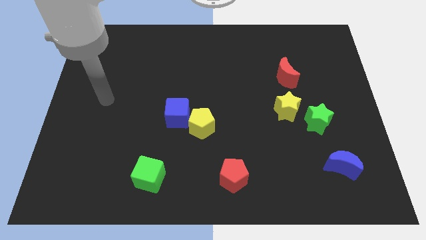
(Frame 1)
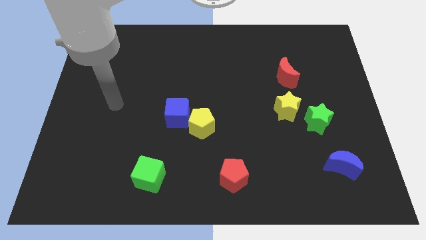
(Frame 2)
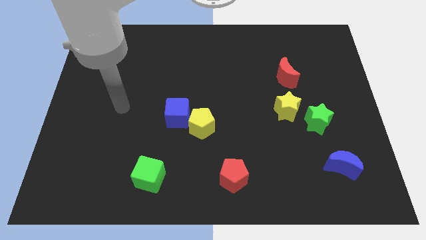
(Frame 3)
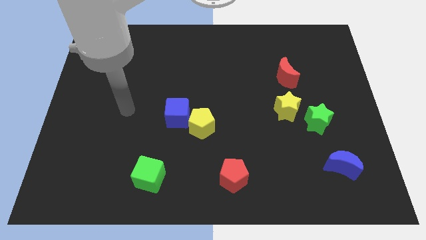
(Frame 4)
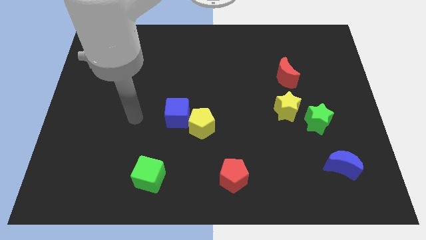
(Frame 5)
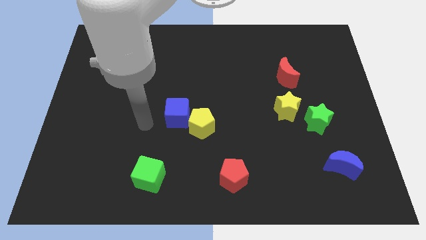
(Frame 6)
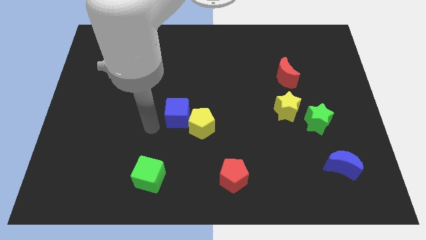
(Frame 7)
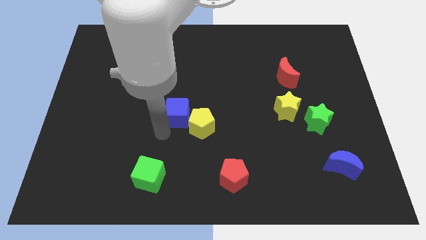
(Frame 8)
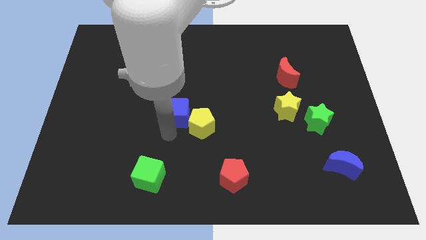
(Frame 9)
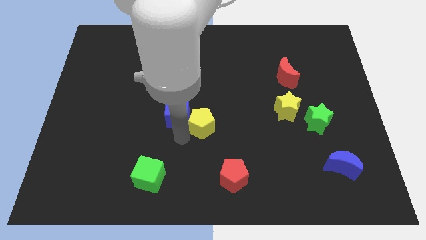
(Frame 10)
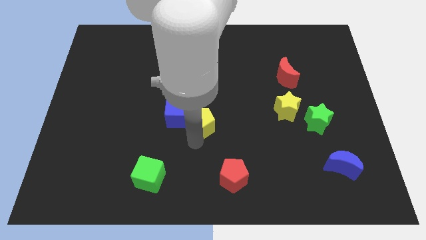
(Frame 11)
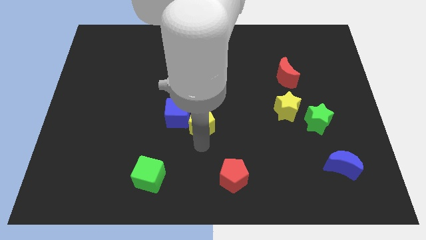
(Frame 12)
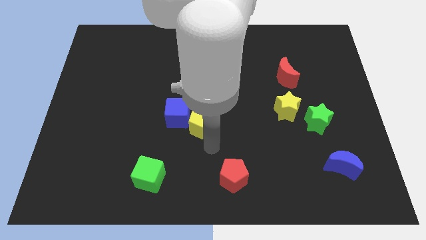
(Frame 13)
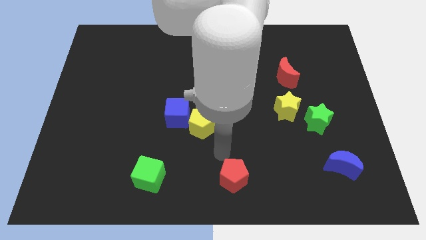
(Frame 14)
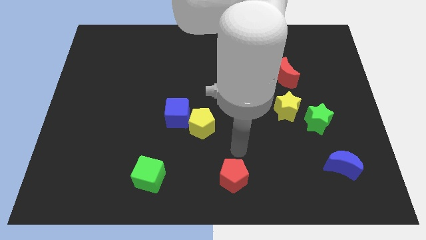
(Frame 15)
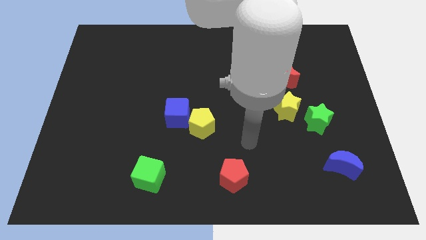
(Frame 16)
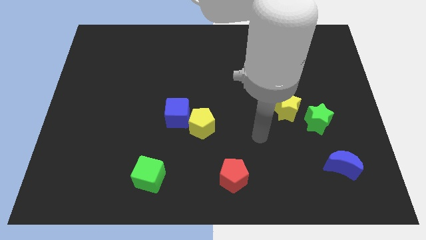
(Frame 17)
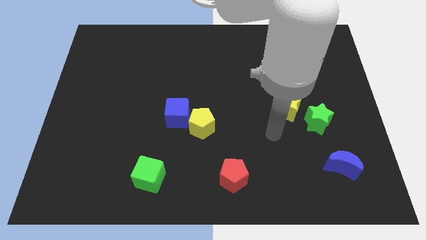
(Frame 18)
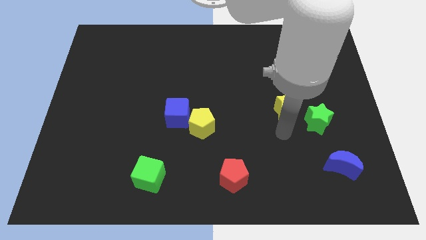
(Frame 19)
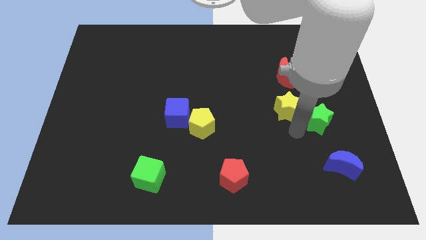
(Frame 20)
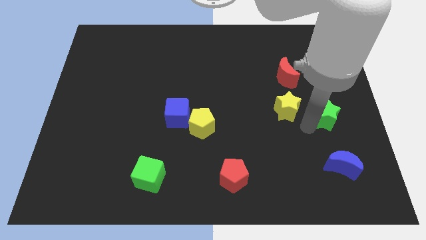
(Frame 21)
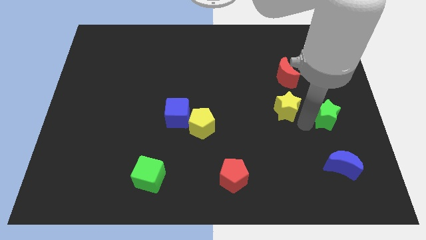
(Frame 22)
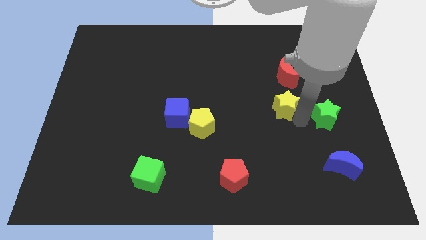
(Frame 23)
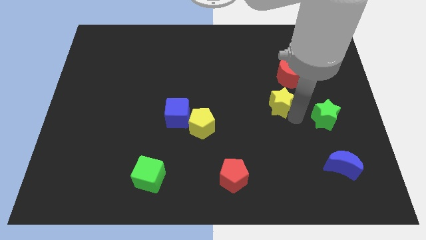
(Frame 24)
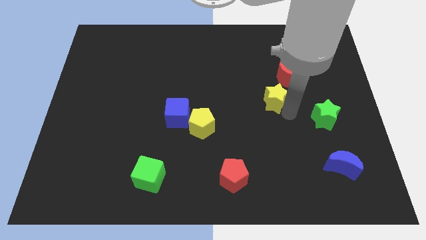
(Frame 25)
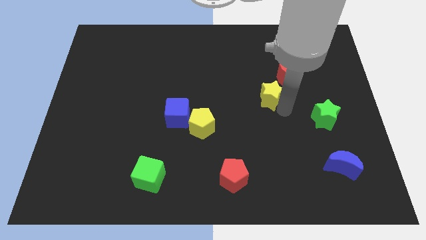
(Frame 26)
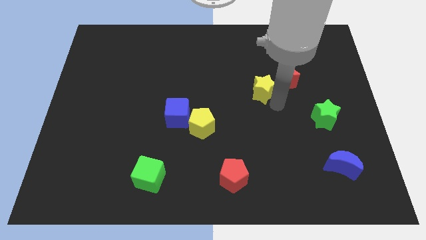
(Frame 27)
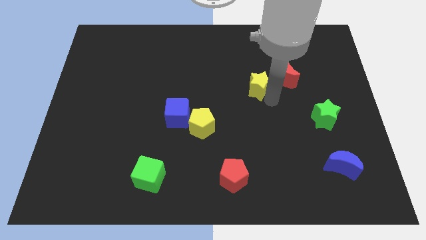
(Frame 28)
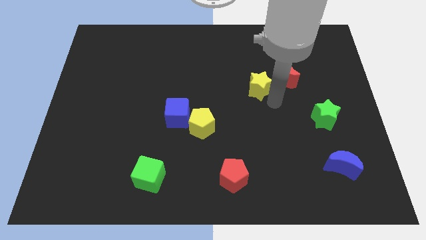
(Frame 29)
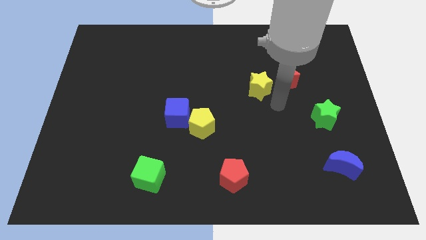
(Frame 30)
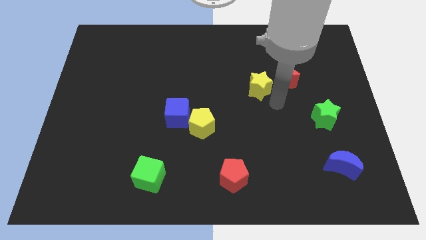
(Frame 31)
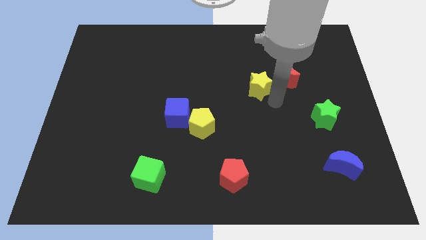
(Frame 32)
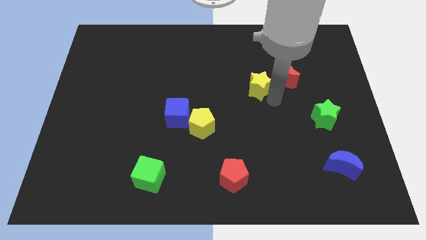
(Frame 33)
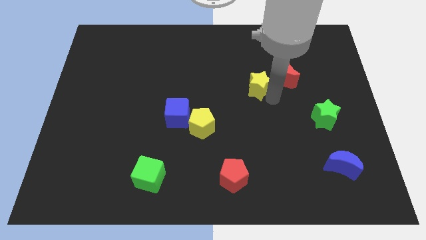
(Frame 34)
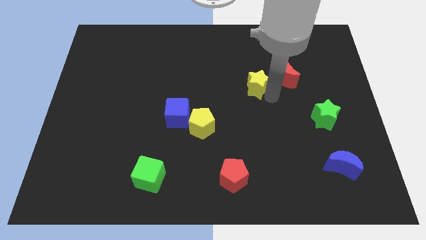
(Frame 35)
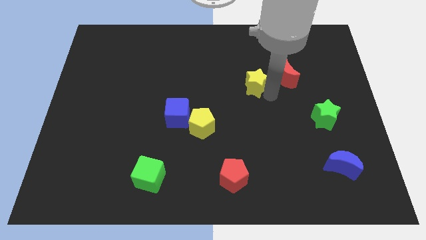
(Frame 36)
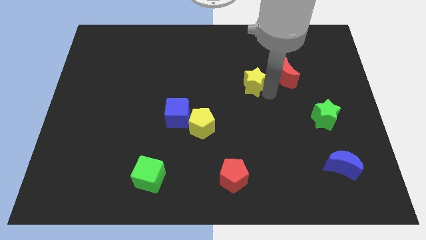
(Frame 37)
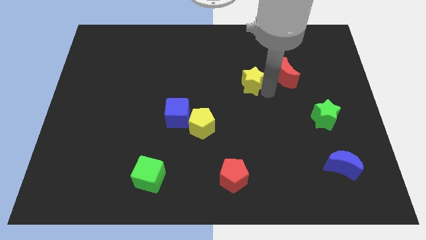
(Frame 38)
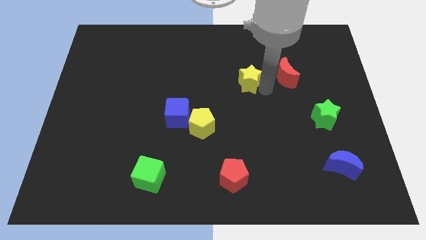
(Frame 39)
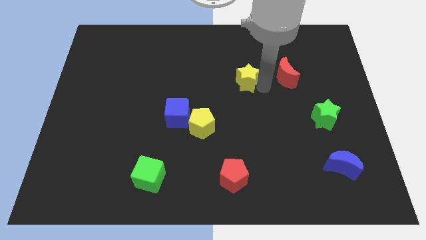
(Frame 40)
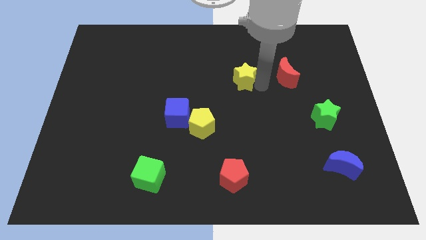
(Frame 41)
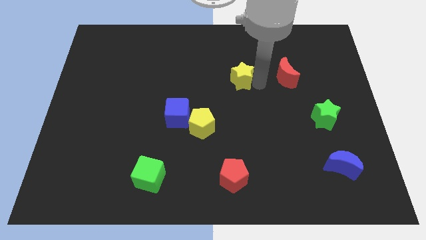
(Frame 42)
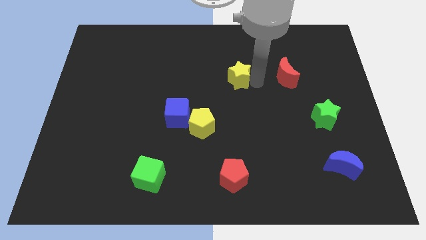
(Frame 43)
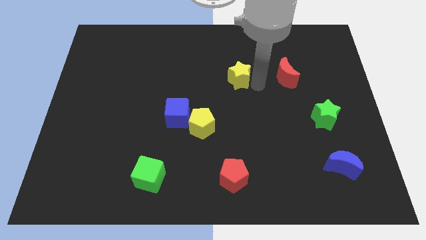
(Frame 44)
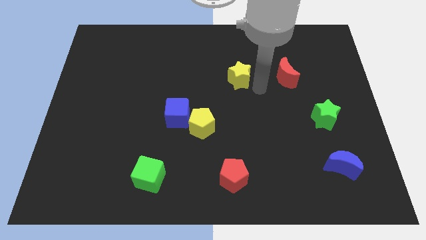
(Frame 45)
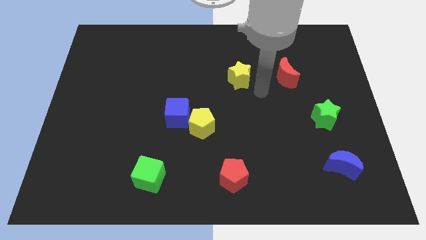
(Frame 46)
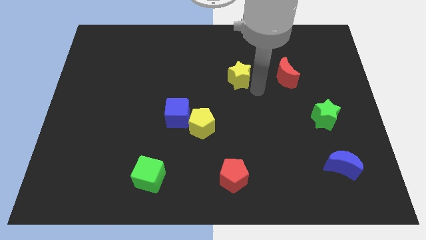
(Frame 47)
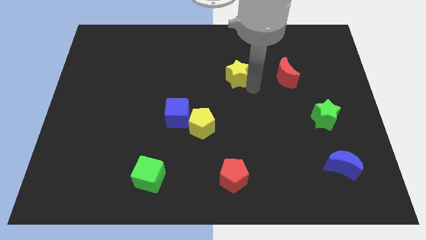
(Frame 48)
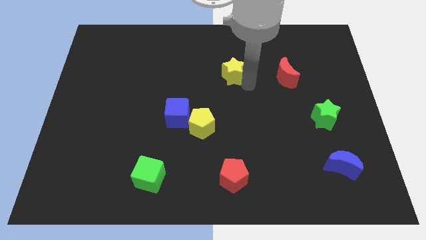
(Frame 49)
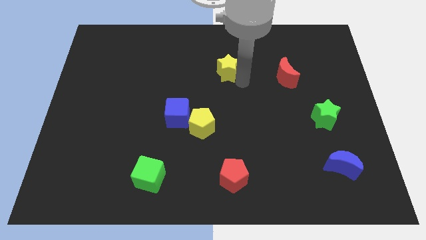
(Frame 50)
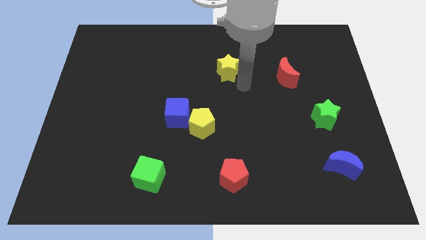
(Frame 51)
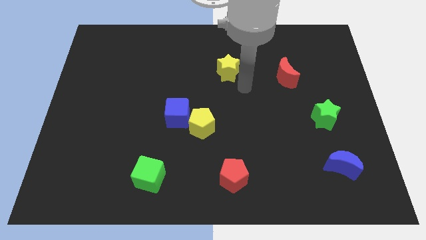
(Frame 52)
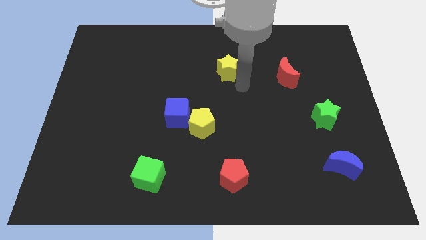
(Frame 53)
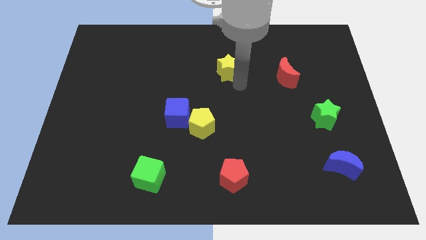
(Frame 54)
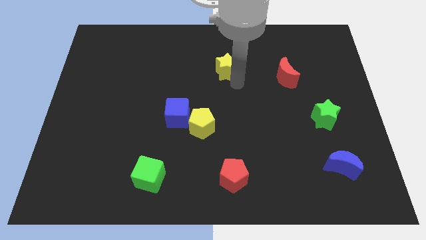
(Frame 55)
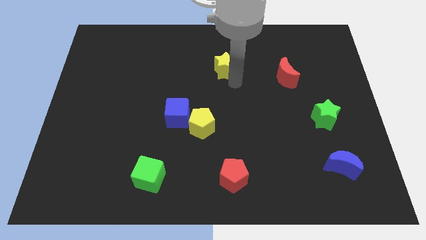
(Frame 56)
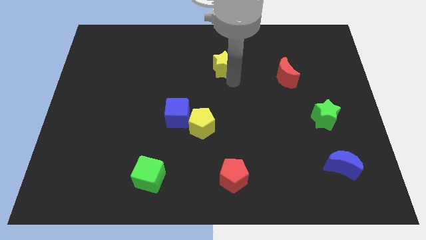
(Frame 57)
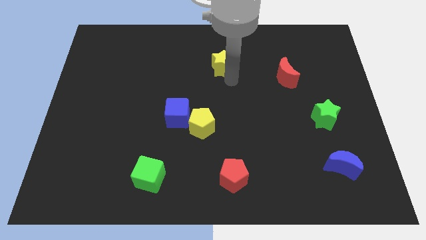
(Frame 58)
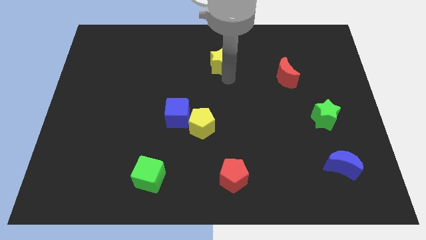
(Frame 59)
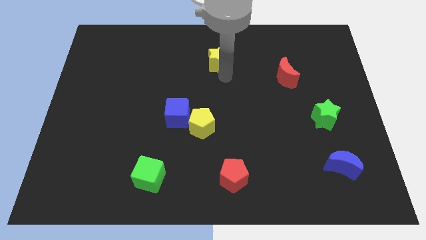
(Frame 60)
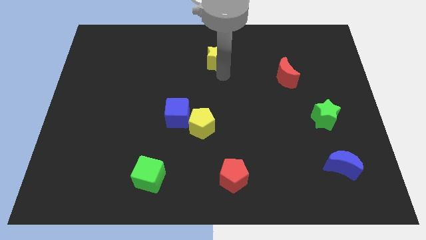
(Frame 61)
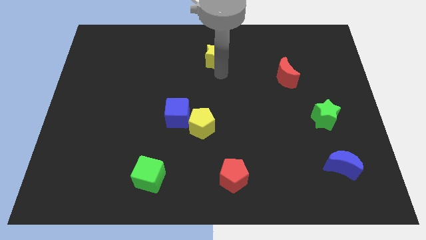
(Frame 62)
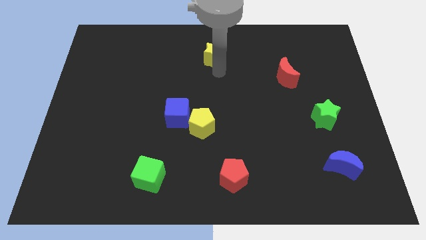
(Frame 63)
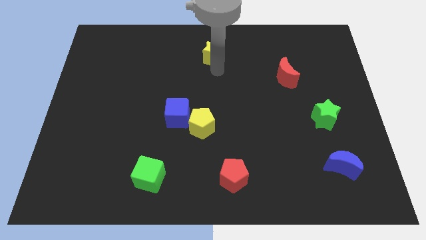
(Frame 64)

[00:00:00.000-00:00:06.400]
push the yellow star to the top

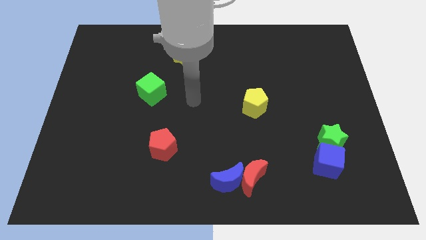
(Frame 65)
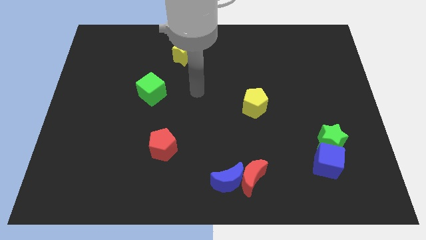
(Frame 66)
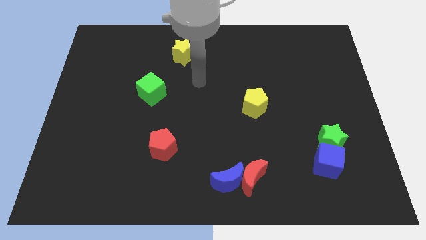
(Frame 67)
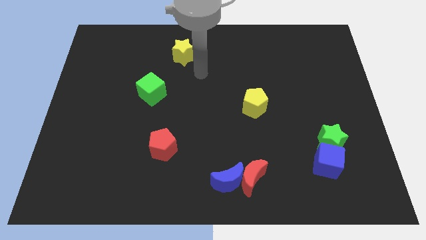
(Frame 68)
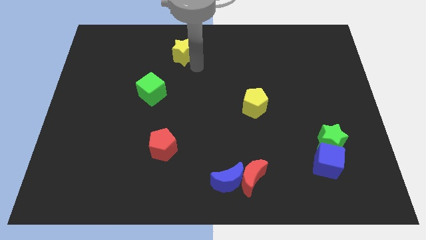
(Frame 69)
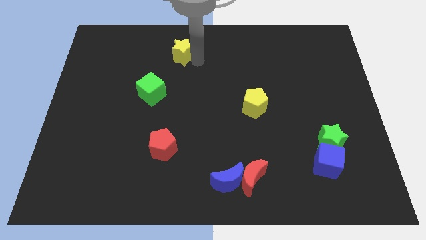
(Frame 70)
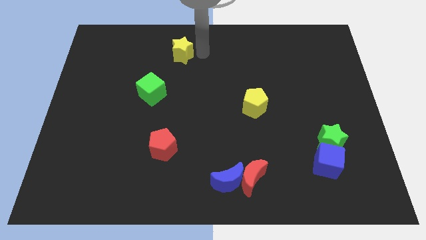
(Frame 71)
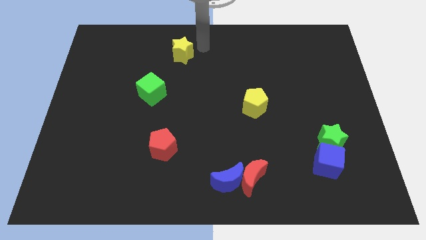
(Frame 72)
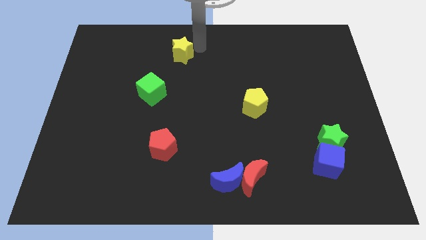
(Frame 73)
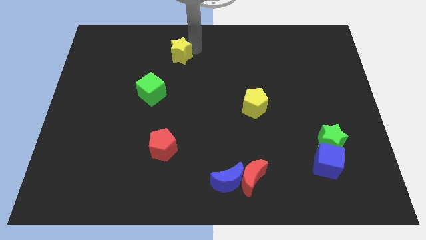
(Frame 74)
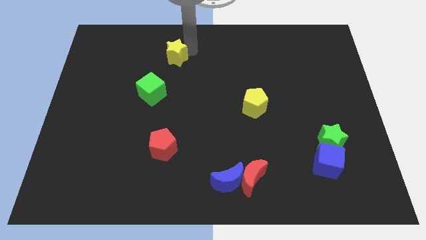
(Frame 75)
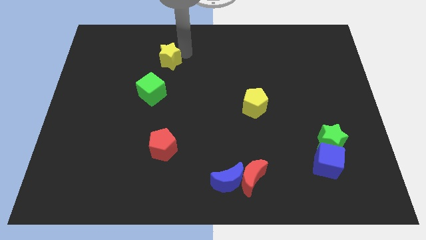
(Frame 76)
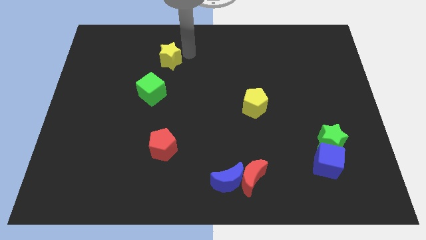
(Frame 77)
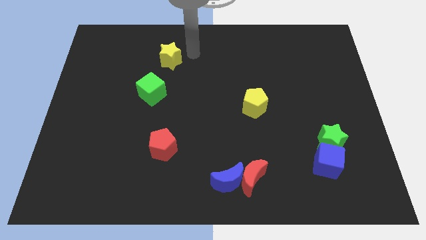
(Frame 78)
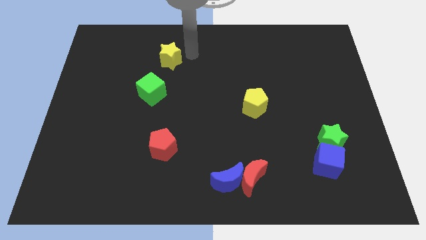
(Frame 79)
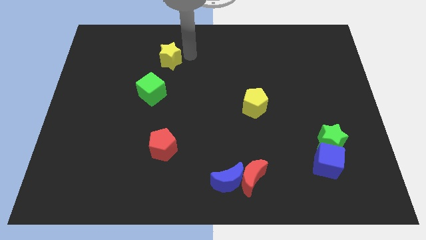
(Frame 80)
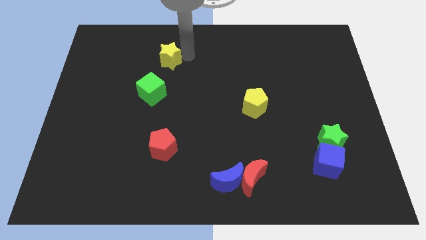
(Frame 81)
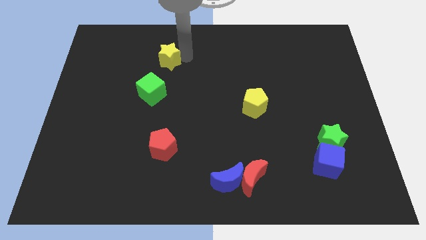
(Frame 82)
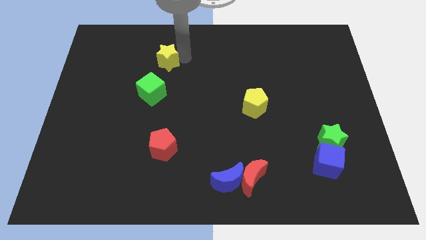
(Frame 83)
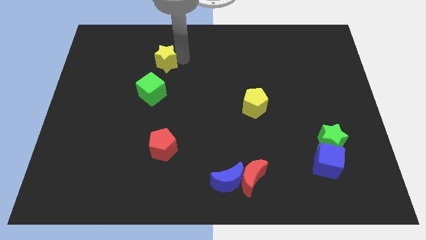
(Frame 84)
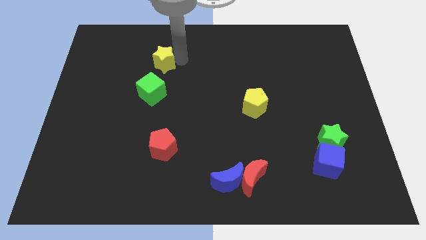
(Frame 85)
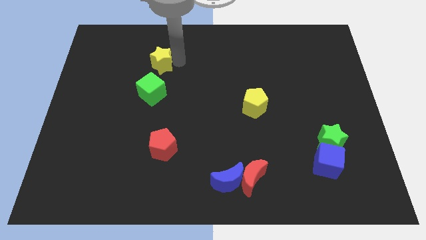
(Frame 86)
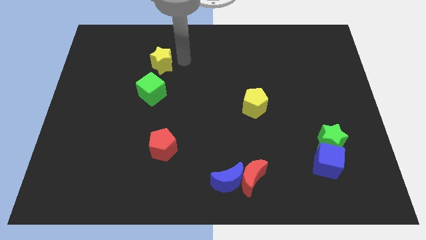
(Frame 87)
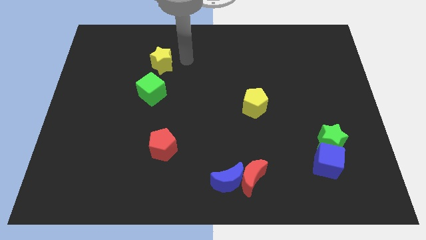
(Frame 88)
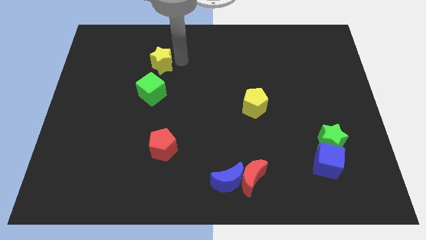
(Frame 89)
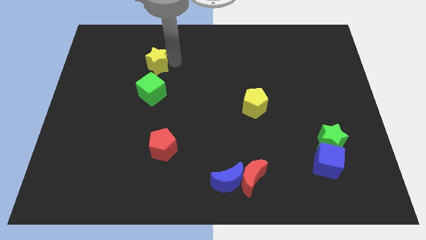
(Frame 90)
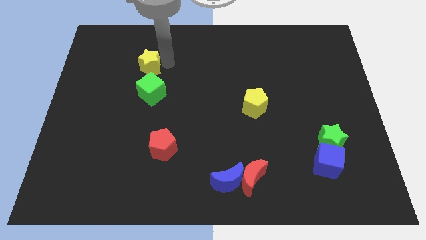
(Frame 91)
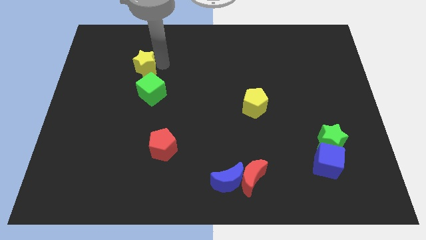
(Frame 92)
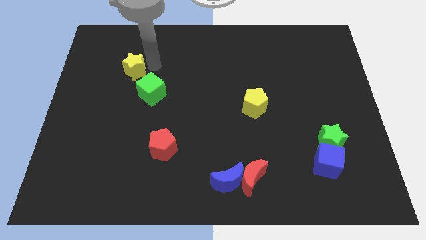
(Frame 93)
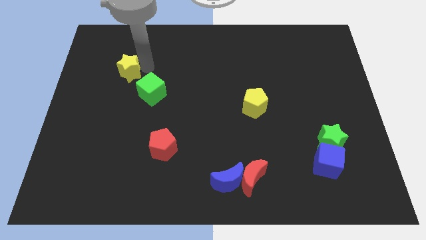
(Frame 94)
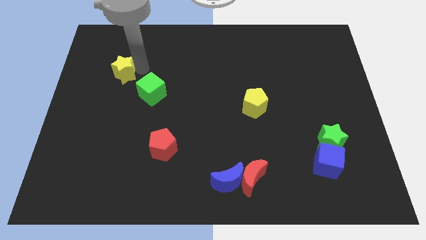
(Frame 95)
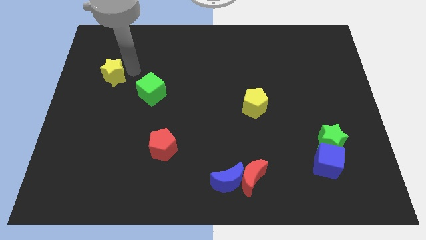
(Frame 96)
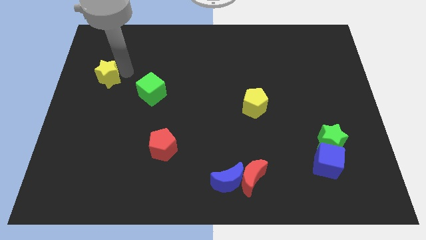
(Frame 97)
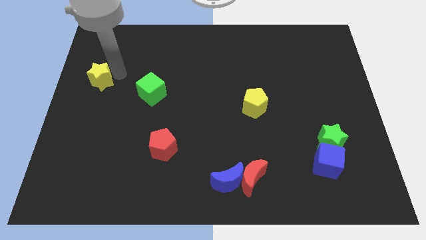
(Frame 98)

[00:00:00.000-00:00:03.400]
put the yellow star to the left side of the board
